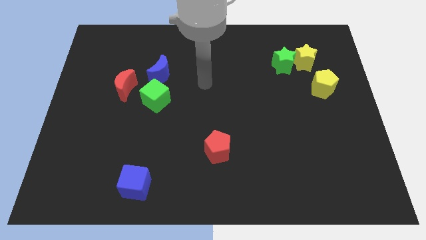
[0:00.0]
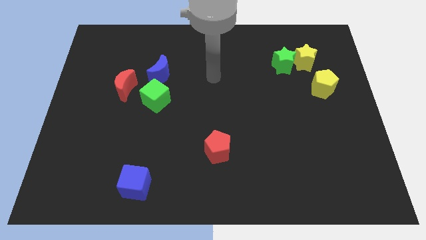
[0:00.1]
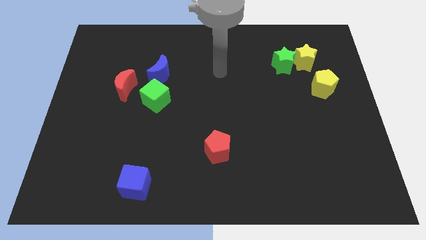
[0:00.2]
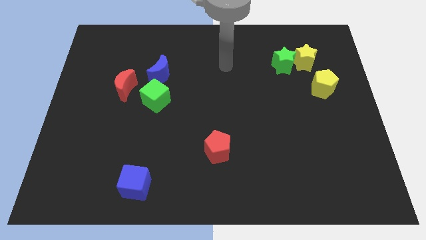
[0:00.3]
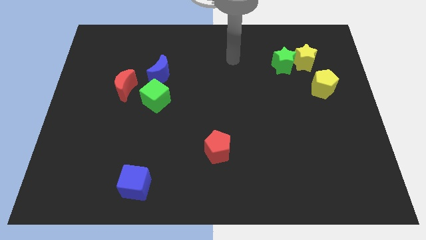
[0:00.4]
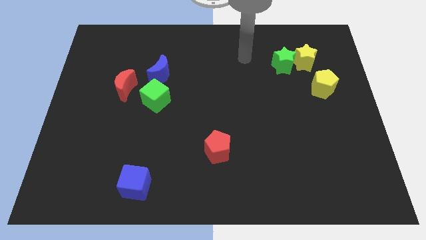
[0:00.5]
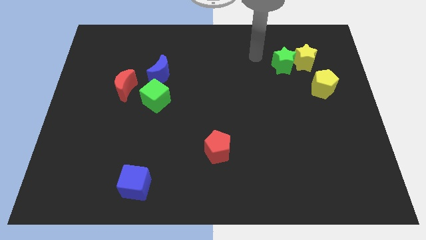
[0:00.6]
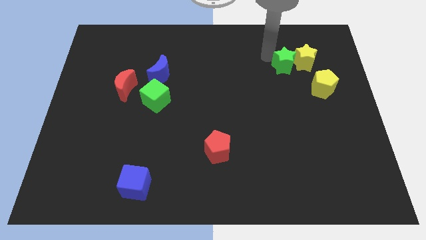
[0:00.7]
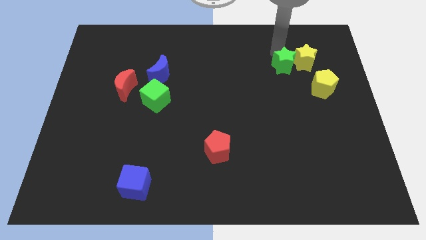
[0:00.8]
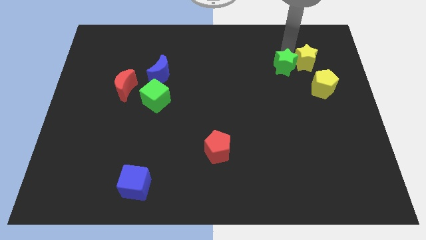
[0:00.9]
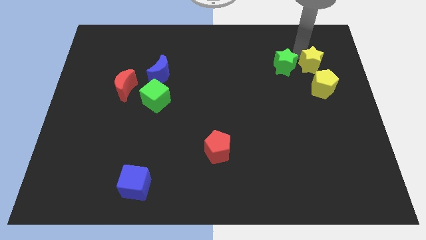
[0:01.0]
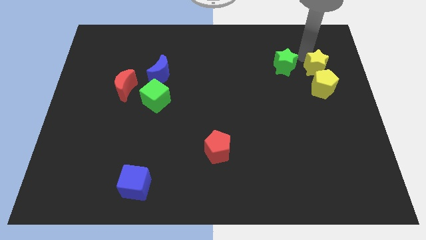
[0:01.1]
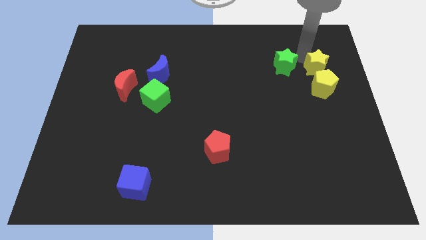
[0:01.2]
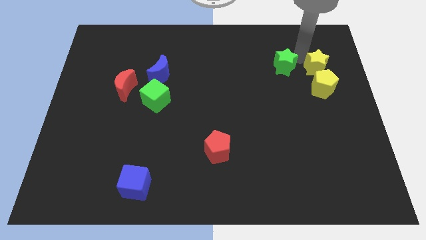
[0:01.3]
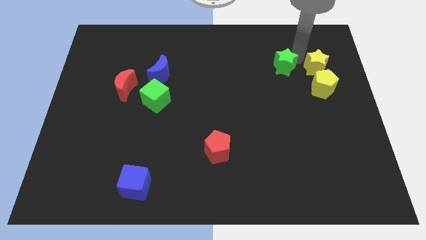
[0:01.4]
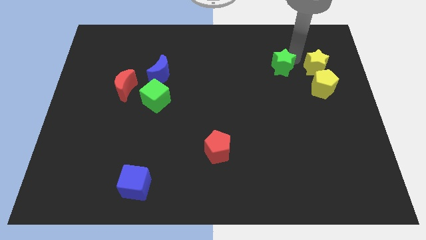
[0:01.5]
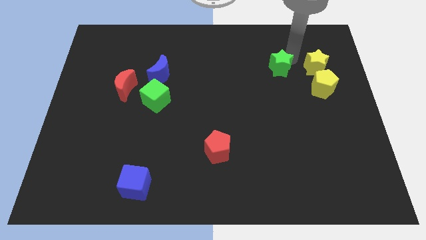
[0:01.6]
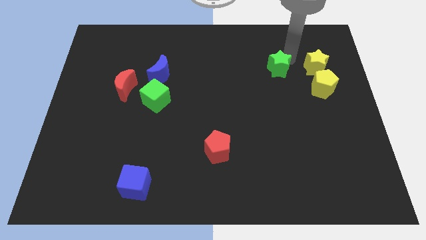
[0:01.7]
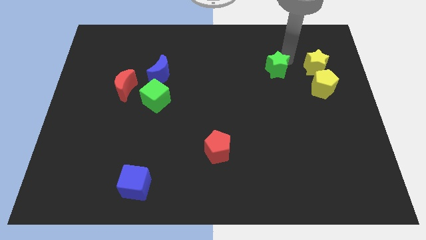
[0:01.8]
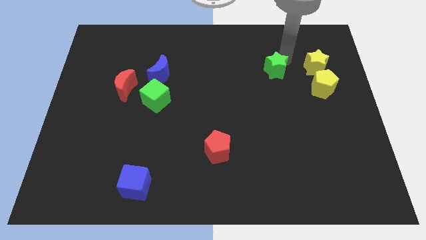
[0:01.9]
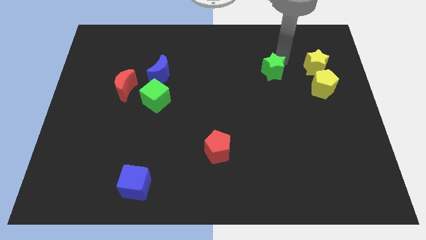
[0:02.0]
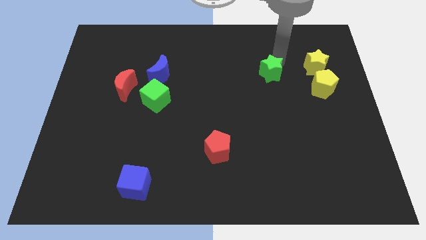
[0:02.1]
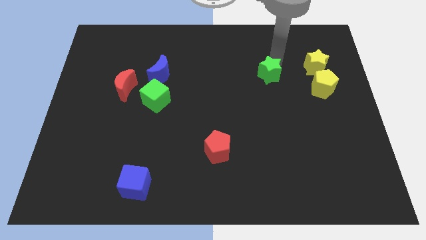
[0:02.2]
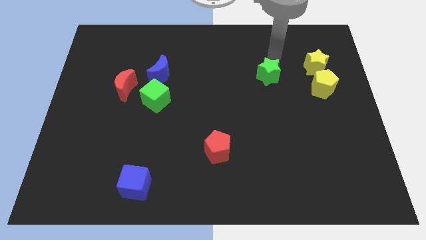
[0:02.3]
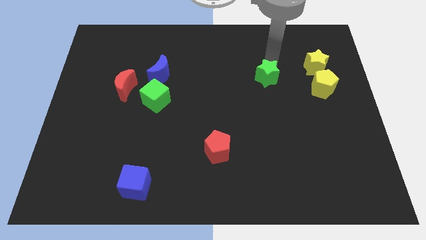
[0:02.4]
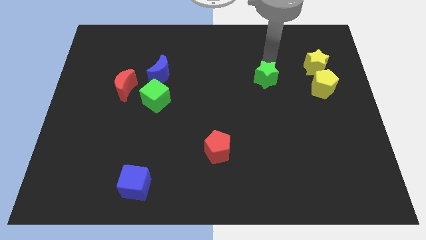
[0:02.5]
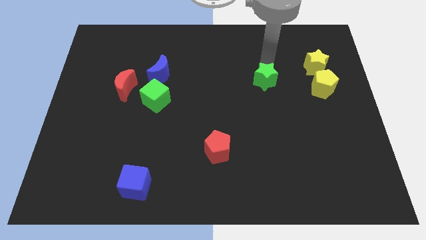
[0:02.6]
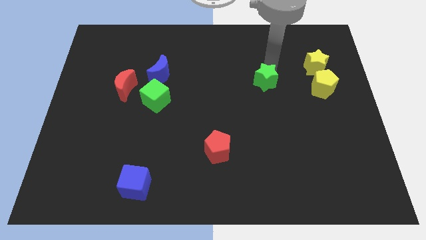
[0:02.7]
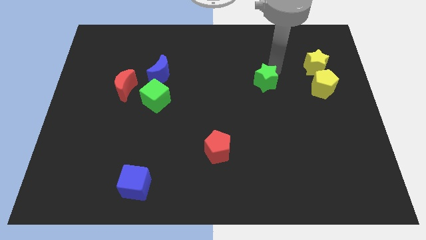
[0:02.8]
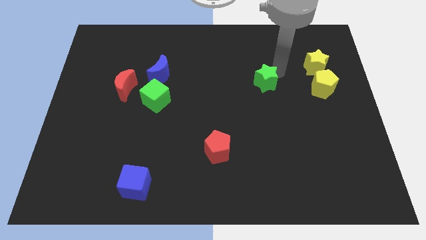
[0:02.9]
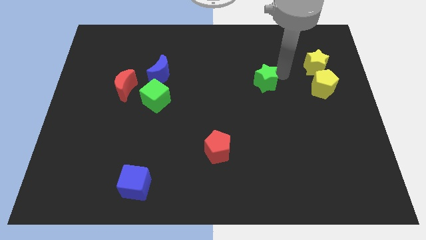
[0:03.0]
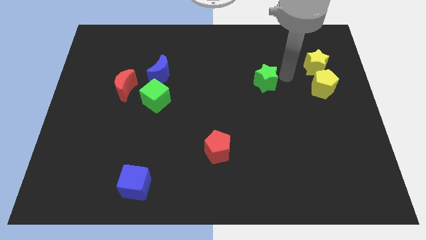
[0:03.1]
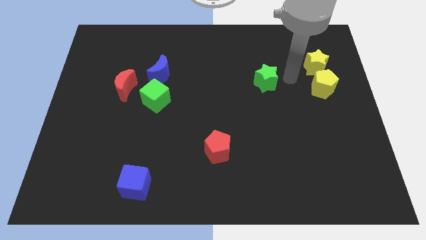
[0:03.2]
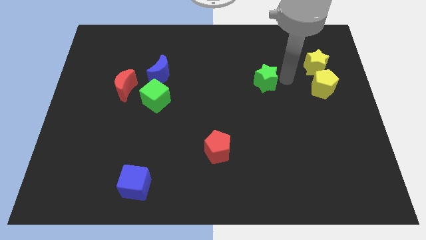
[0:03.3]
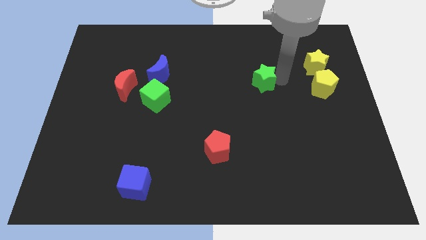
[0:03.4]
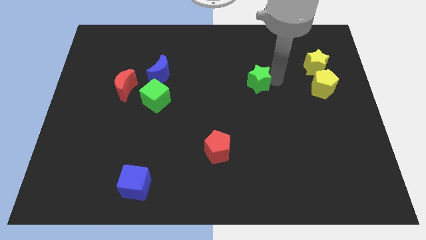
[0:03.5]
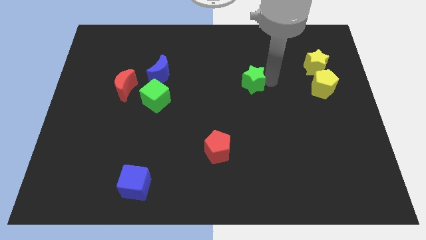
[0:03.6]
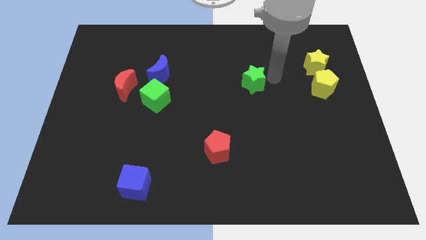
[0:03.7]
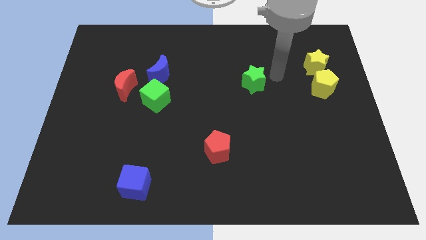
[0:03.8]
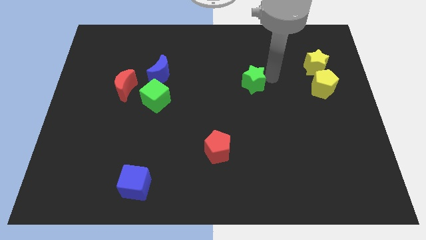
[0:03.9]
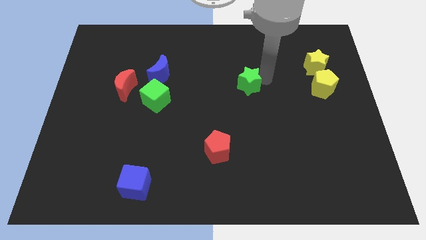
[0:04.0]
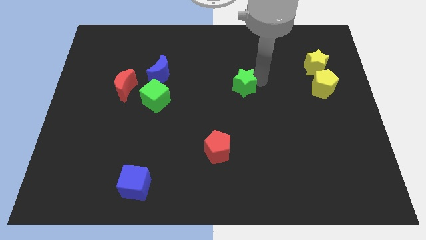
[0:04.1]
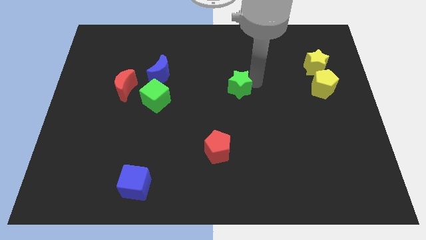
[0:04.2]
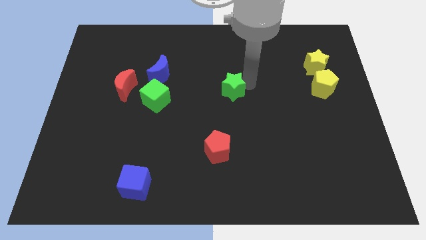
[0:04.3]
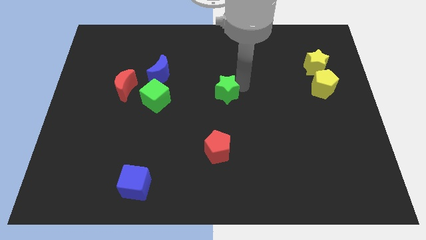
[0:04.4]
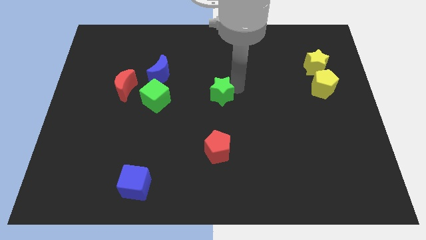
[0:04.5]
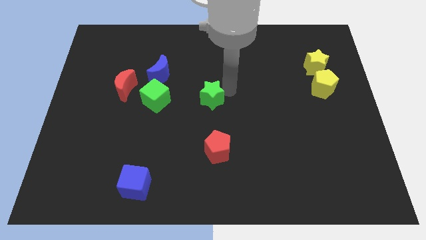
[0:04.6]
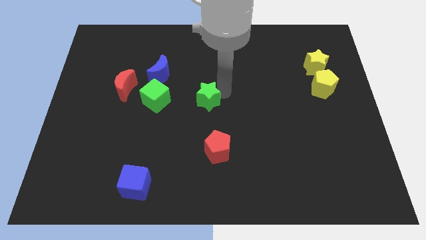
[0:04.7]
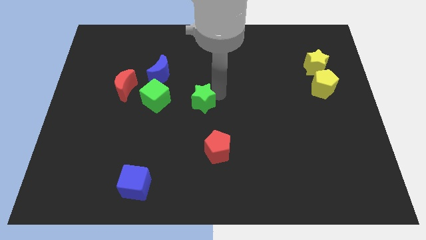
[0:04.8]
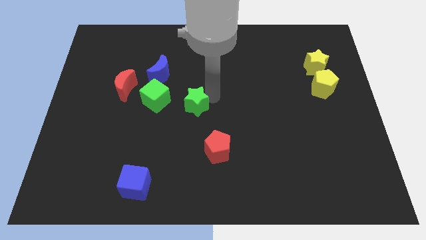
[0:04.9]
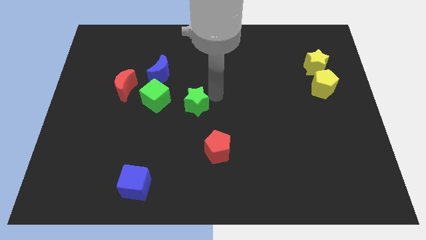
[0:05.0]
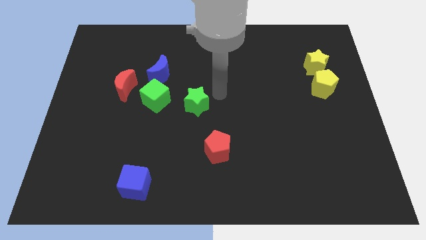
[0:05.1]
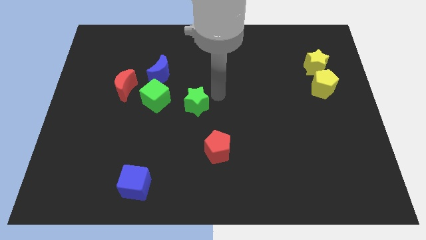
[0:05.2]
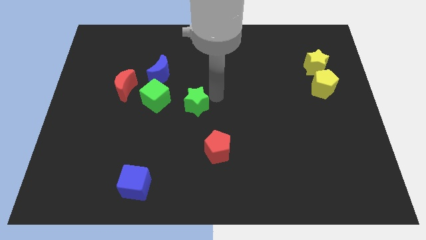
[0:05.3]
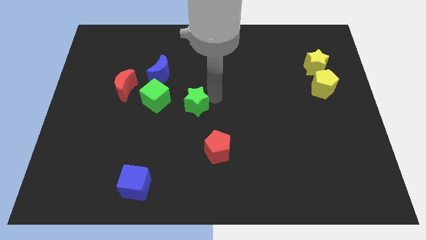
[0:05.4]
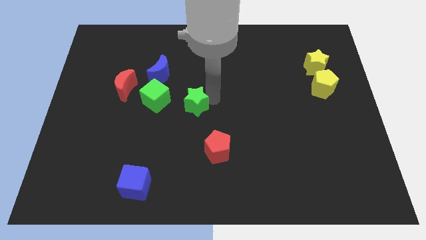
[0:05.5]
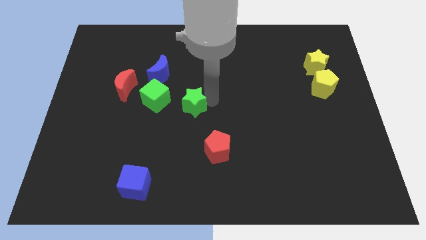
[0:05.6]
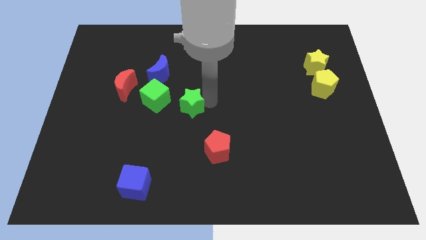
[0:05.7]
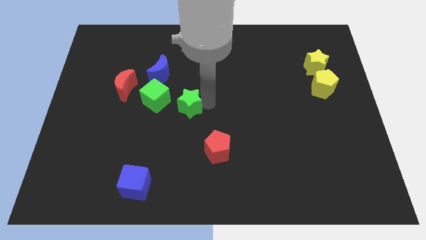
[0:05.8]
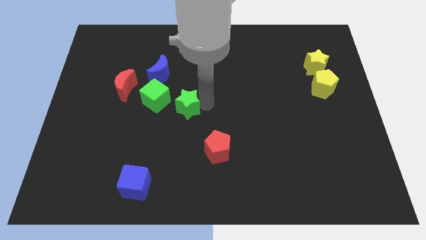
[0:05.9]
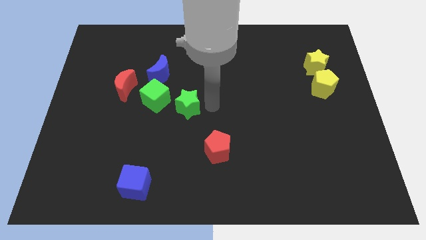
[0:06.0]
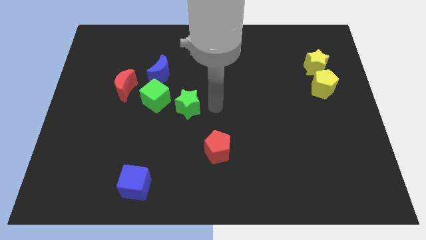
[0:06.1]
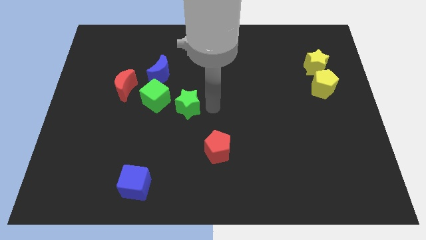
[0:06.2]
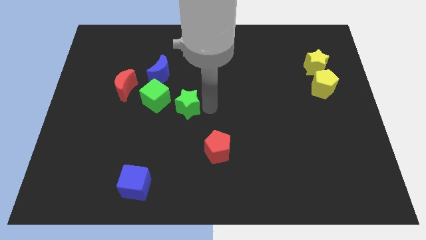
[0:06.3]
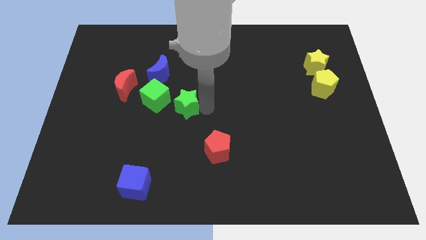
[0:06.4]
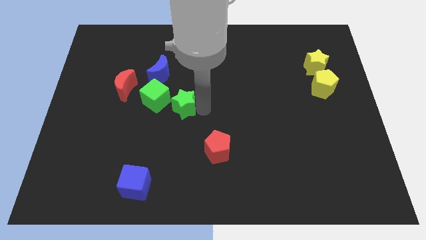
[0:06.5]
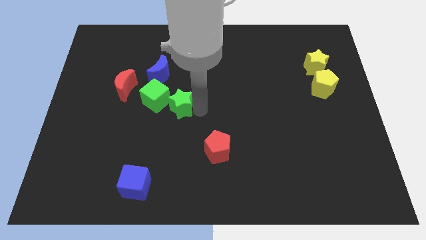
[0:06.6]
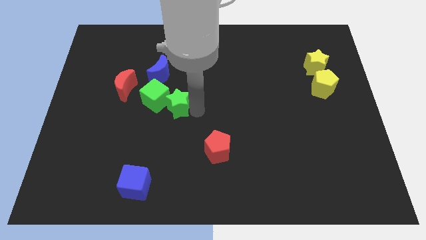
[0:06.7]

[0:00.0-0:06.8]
slide the green star to the bottom of the blue moon

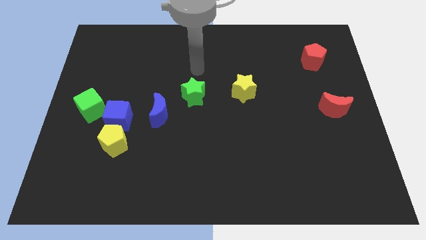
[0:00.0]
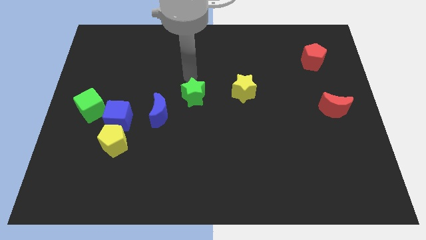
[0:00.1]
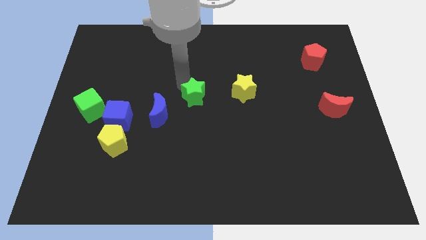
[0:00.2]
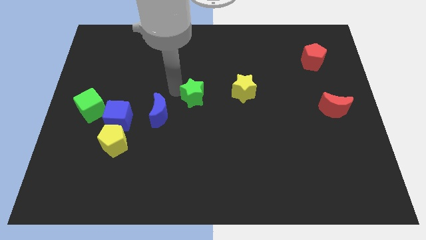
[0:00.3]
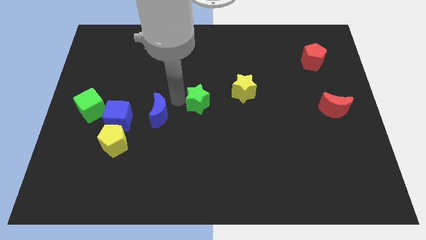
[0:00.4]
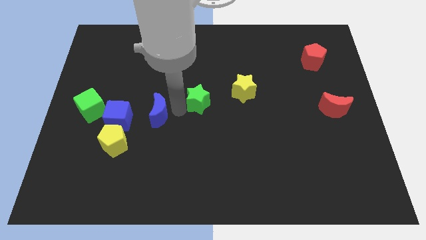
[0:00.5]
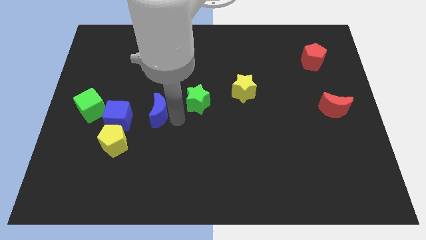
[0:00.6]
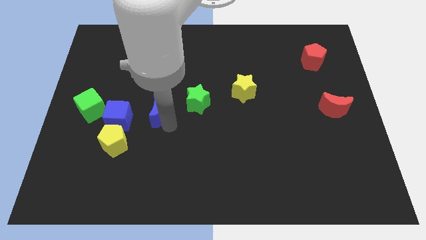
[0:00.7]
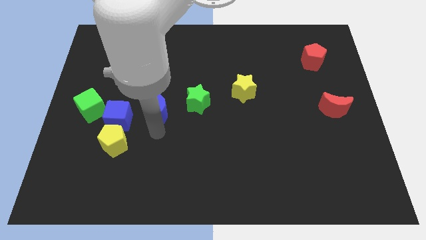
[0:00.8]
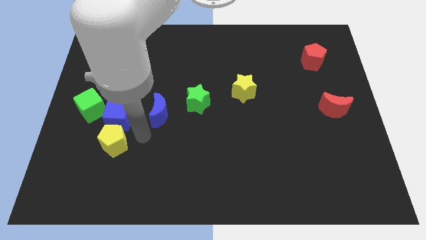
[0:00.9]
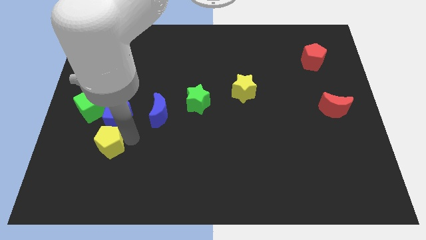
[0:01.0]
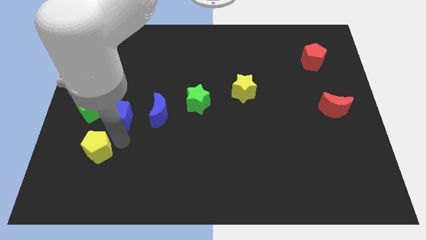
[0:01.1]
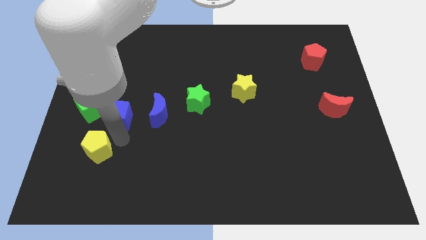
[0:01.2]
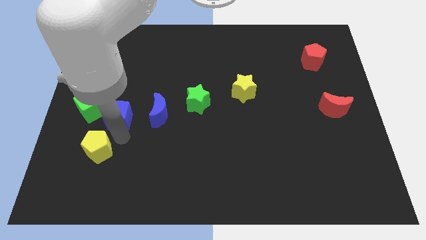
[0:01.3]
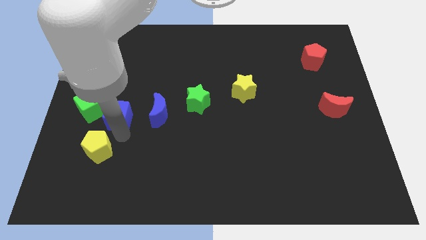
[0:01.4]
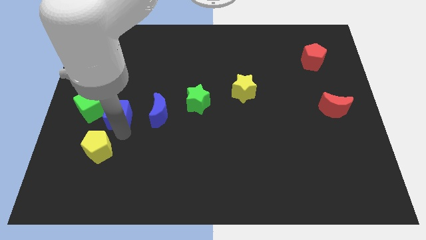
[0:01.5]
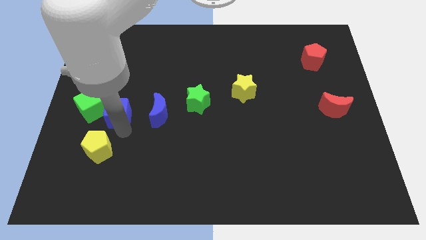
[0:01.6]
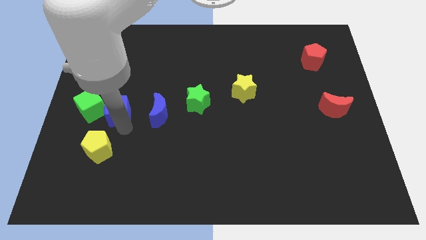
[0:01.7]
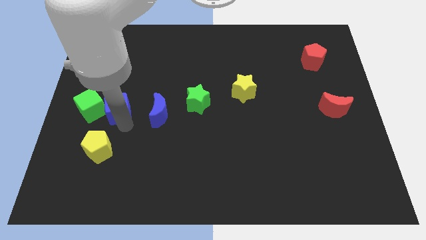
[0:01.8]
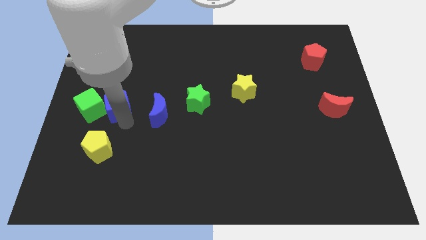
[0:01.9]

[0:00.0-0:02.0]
push the blue cube to the top right side of the green cube
